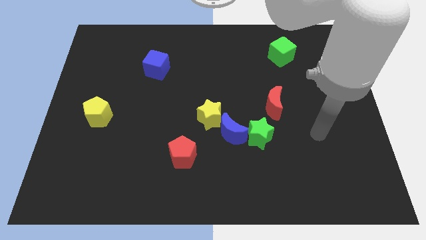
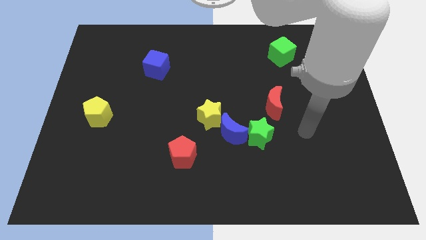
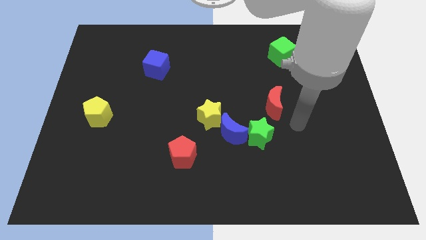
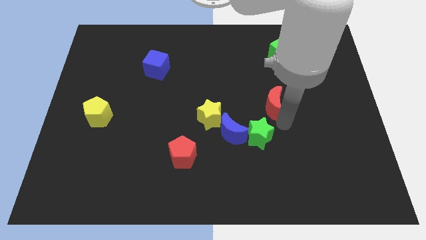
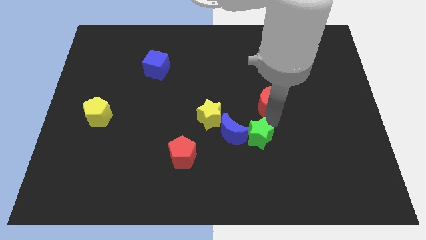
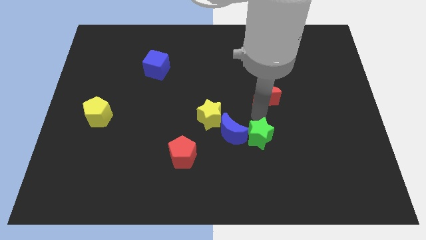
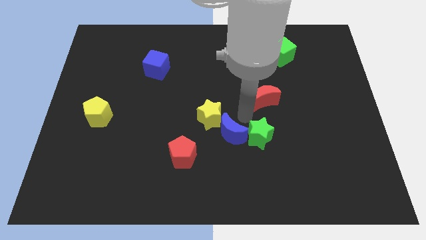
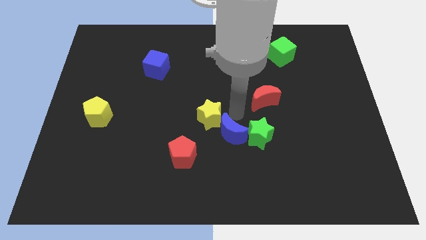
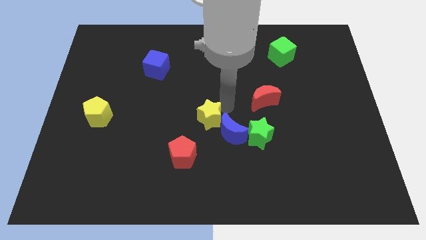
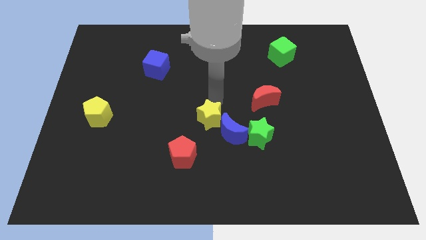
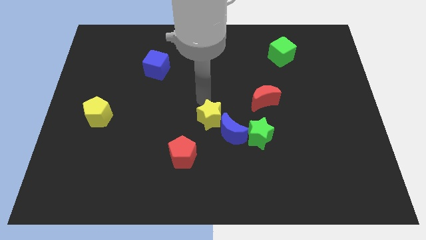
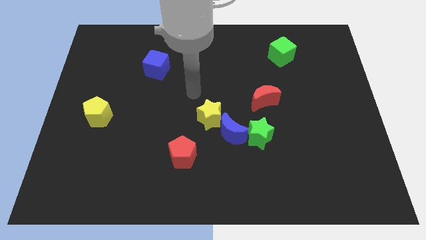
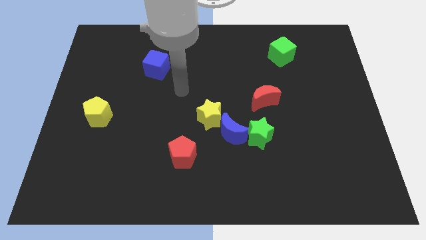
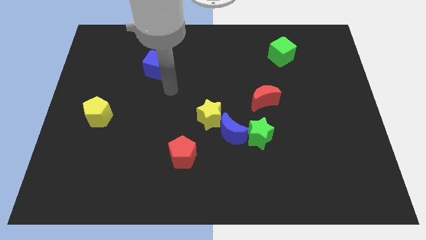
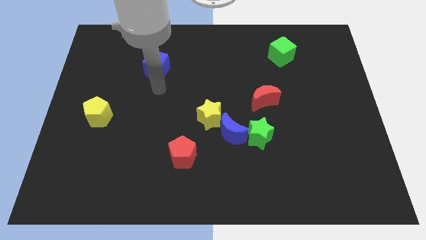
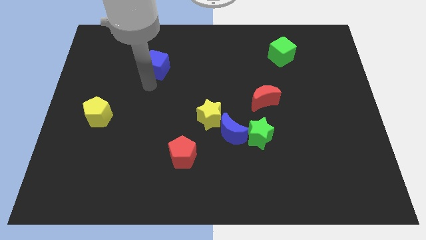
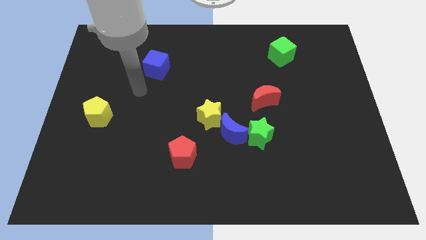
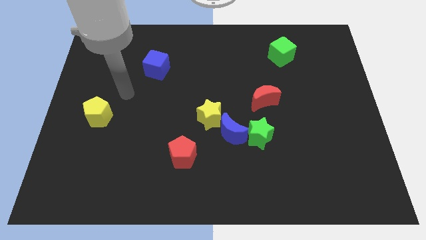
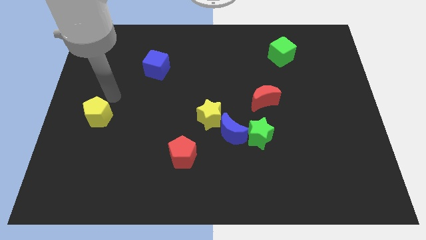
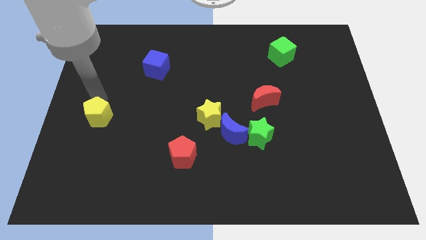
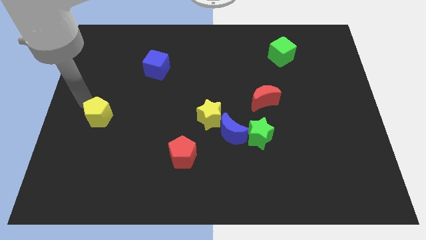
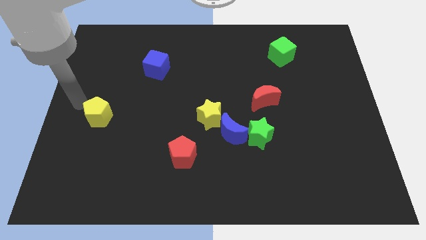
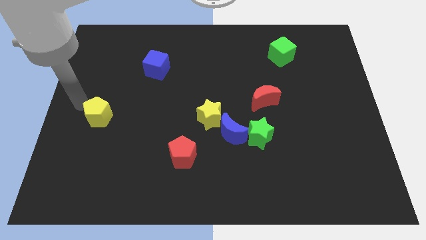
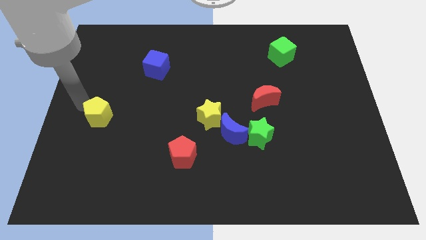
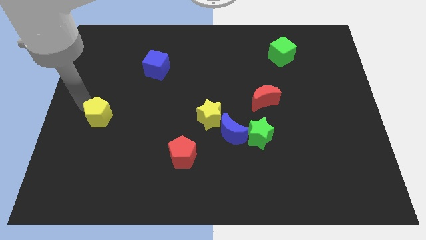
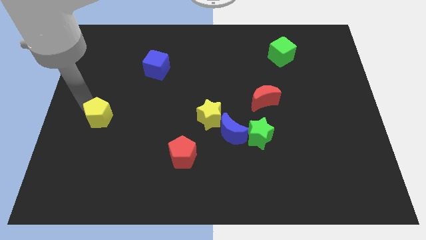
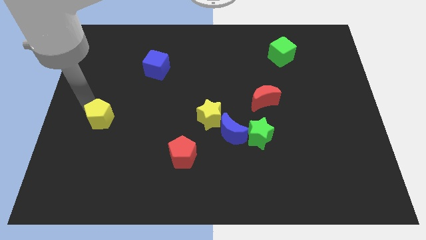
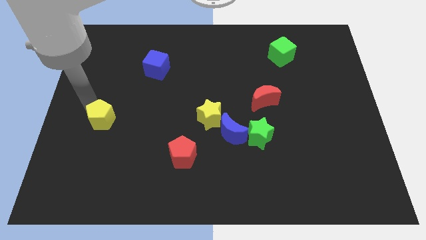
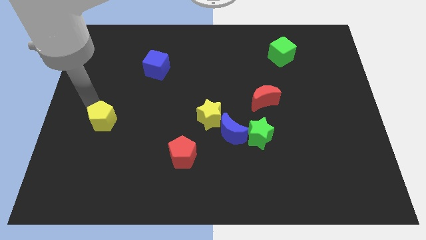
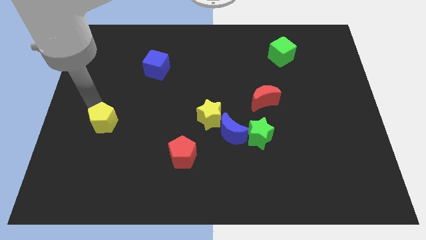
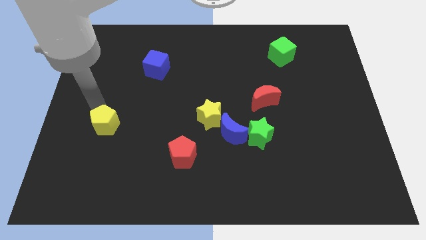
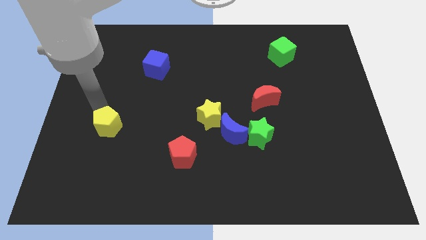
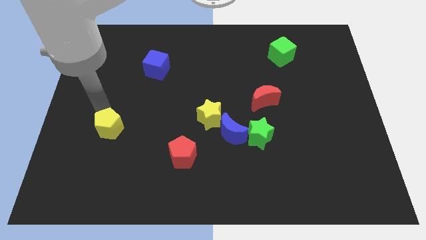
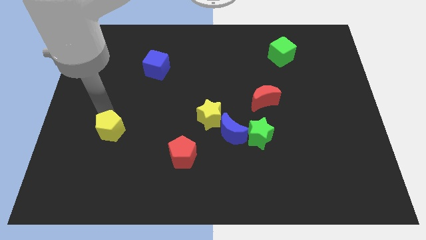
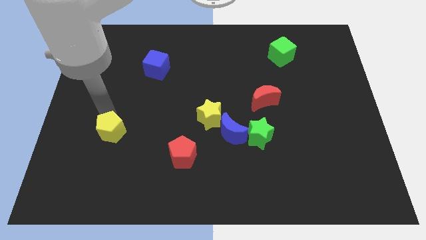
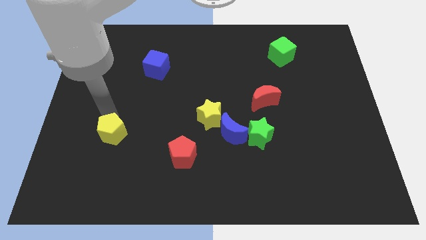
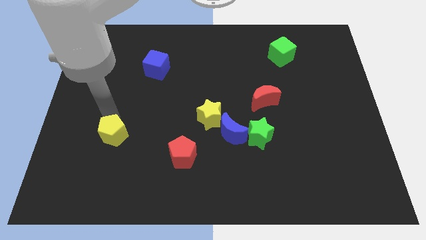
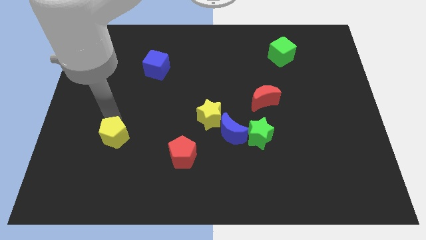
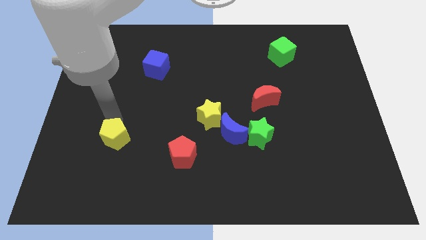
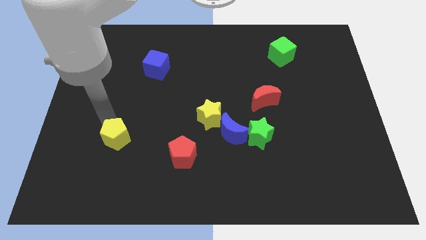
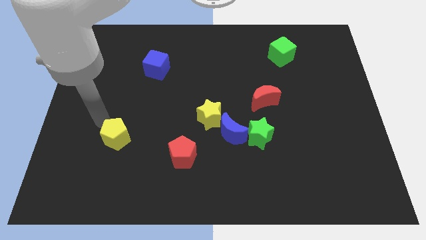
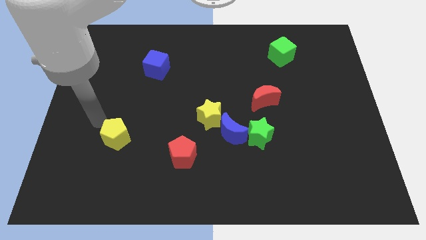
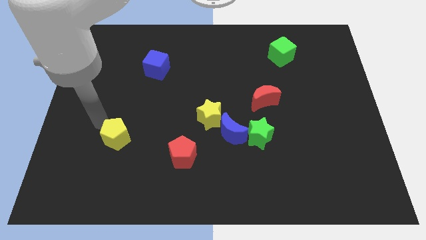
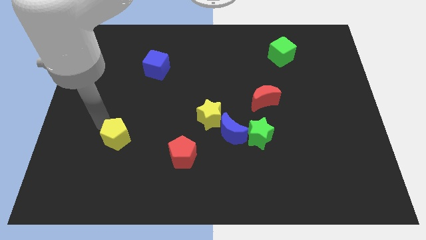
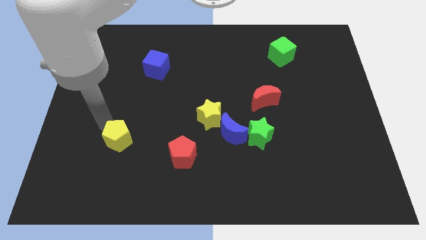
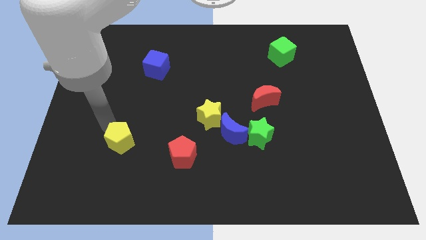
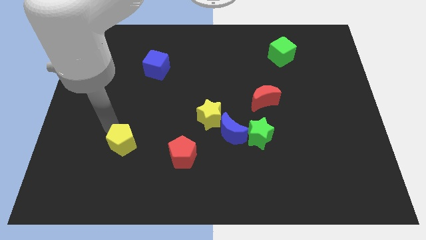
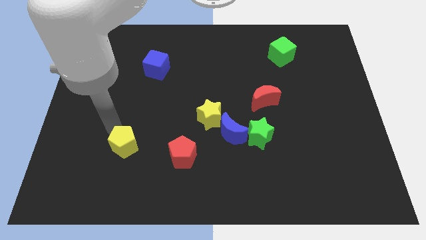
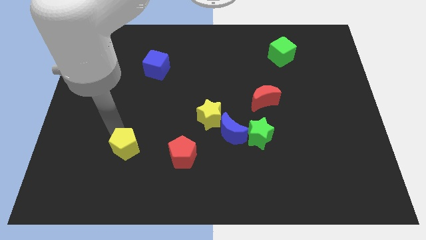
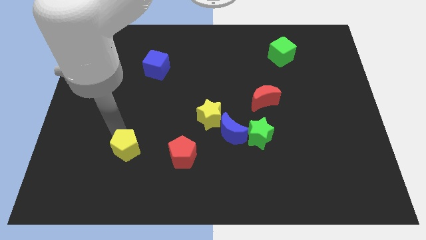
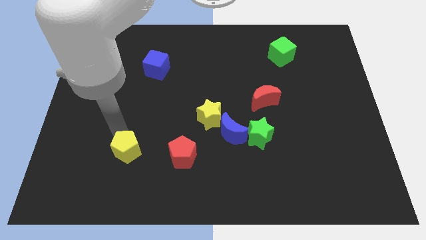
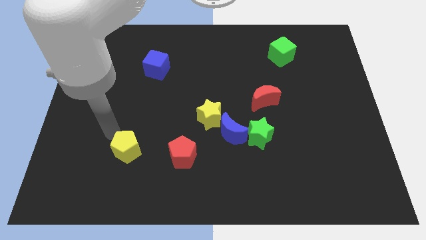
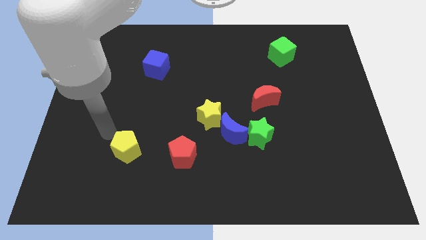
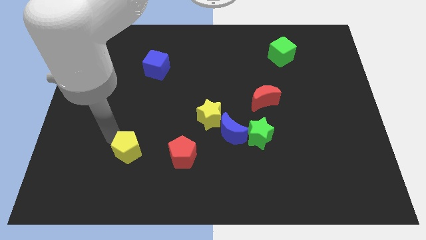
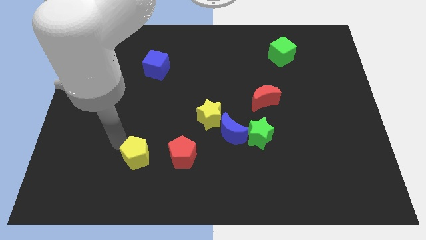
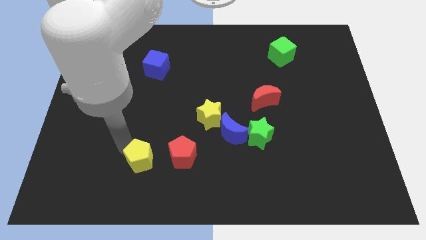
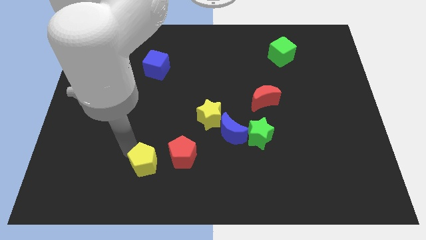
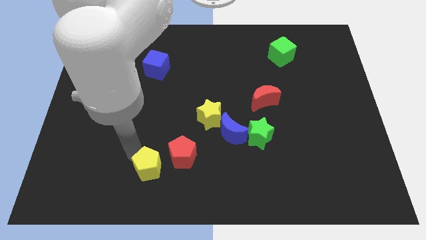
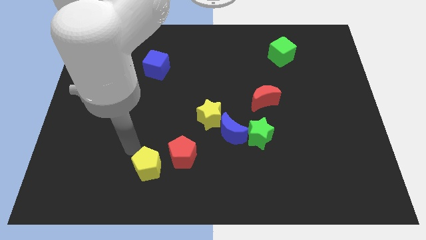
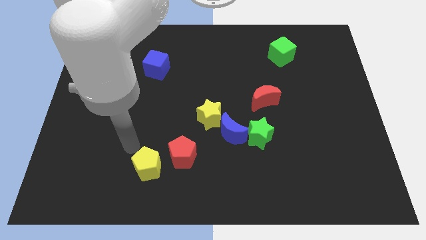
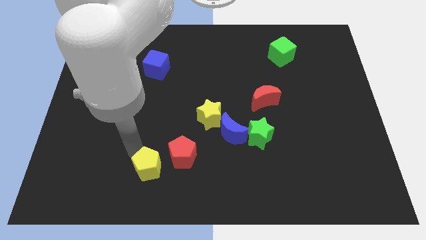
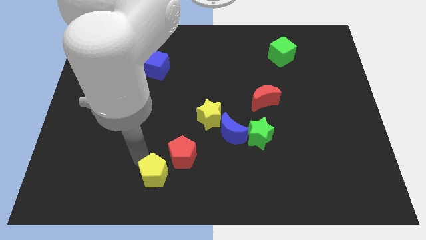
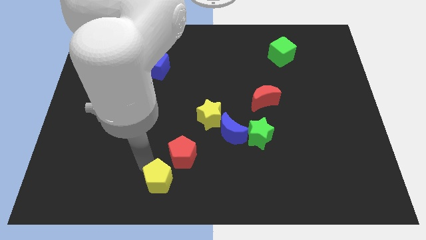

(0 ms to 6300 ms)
push the yellow pentagon to the bottom side
